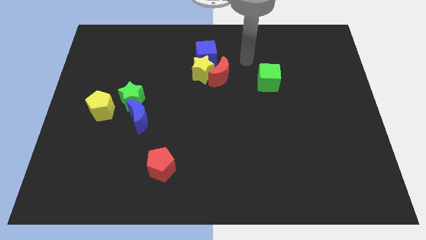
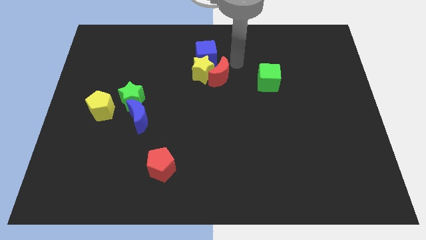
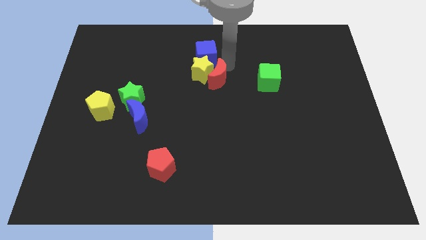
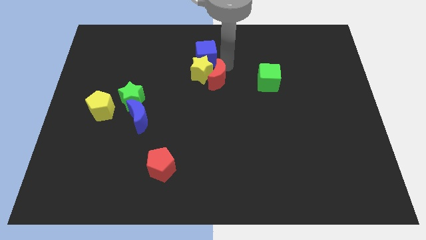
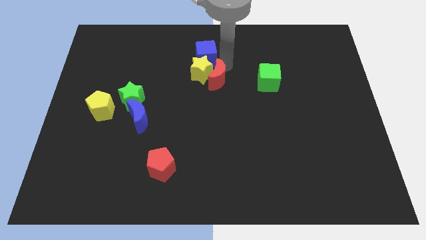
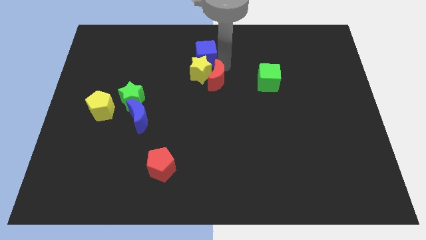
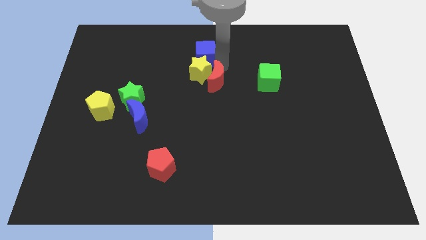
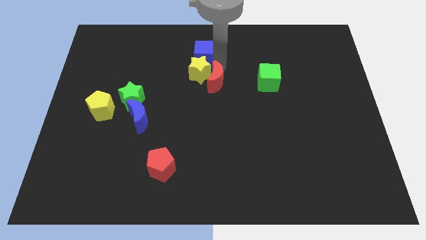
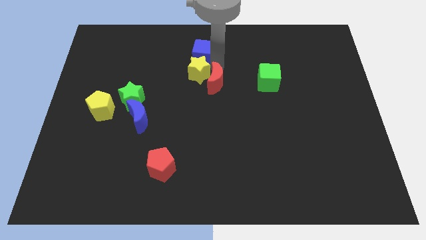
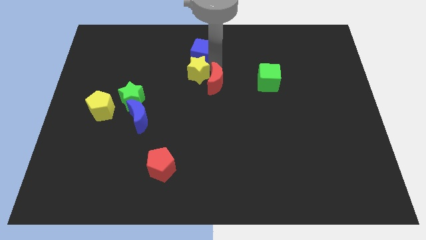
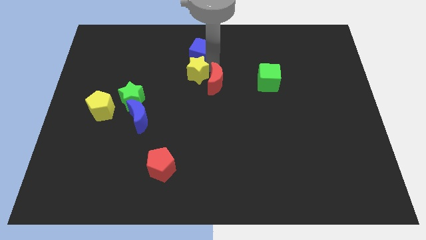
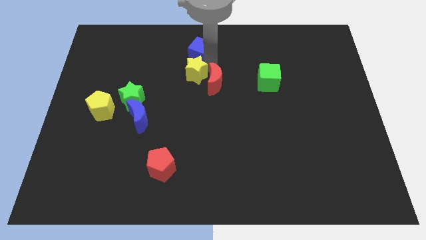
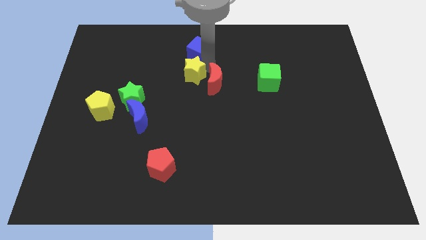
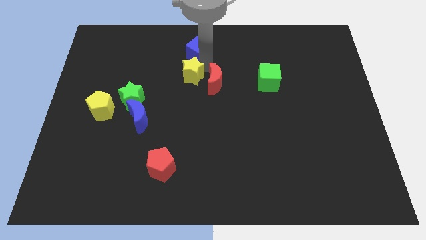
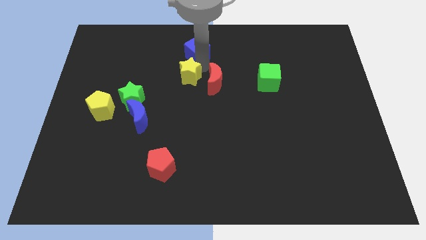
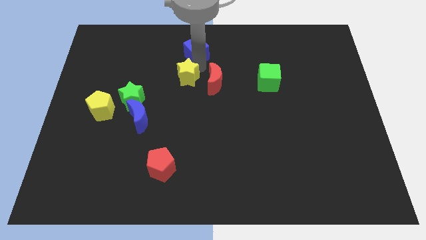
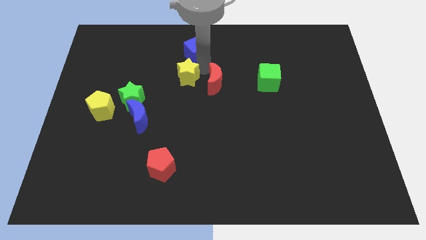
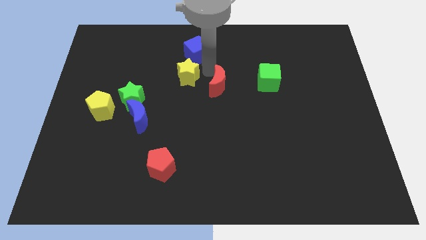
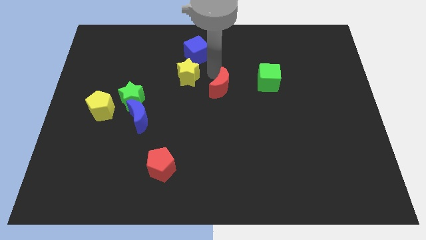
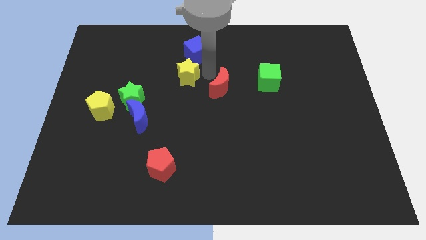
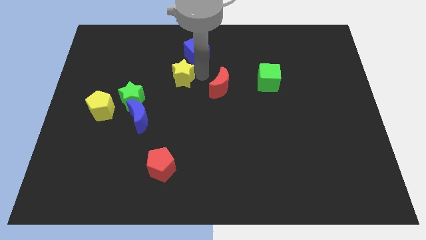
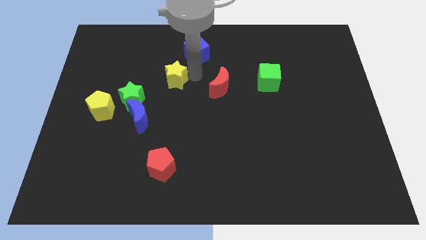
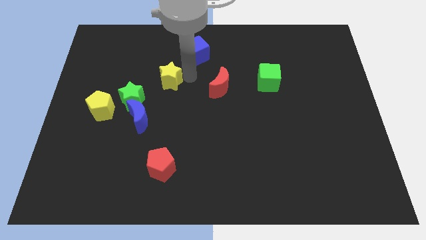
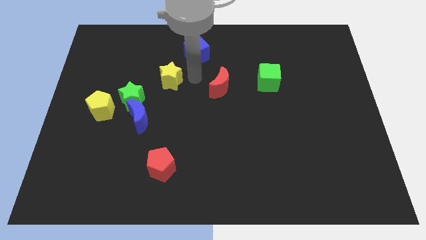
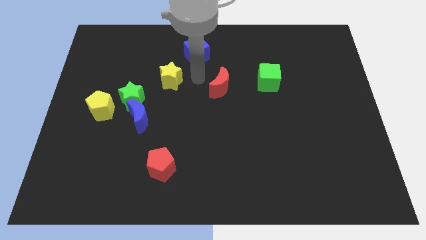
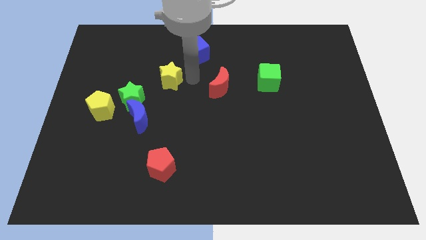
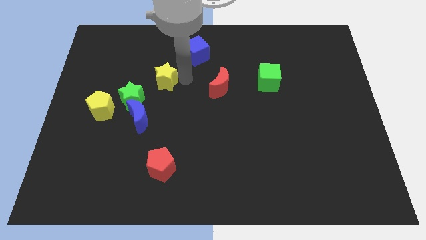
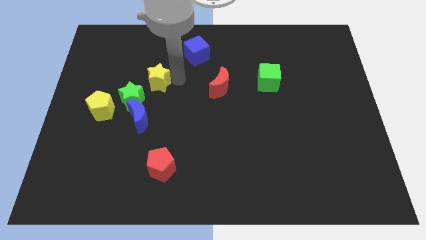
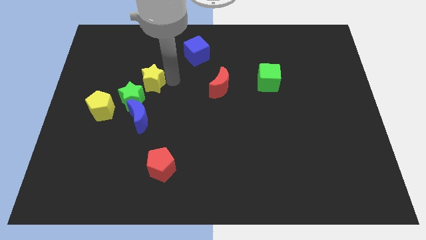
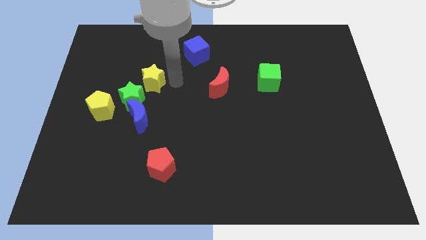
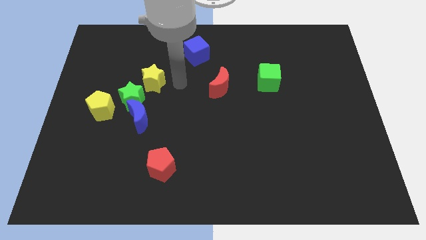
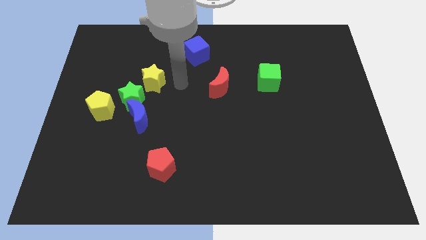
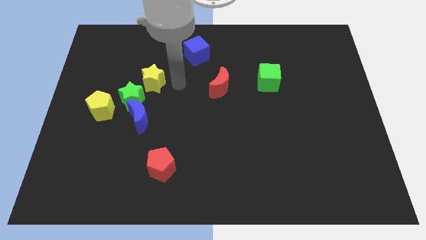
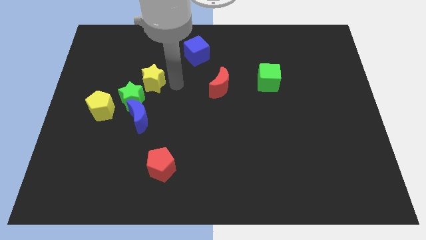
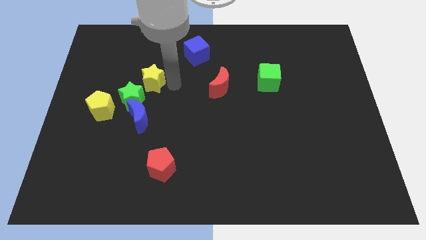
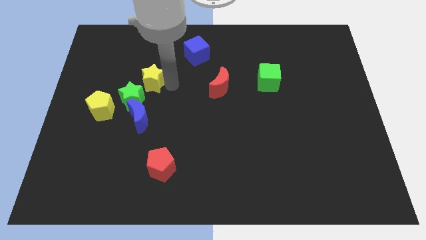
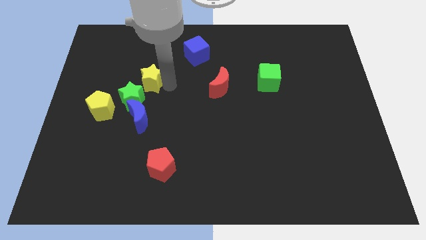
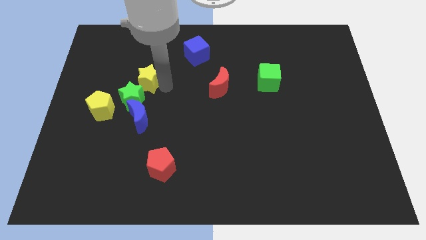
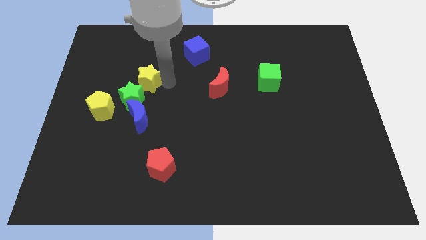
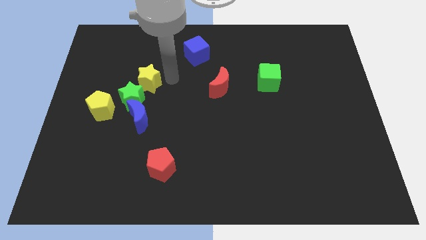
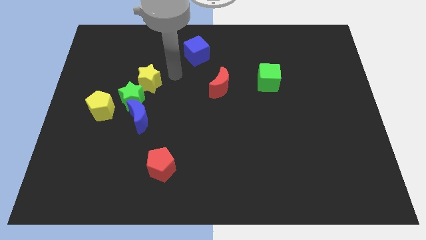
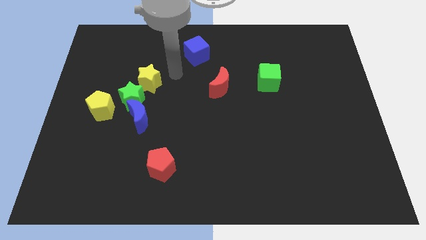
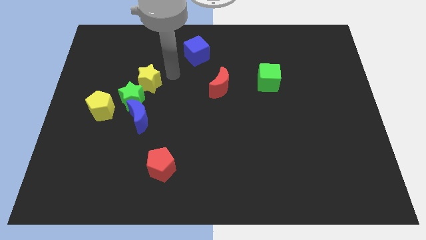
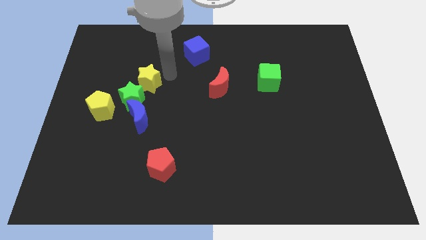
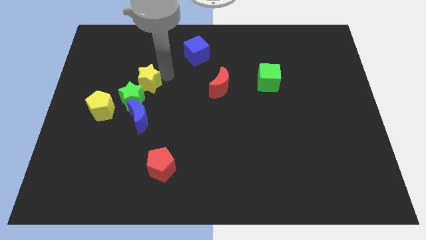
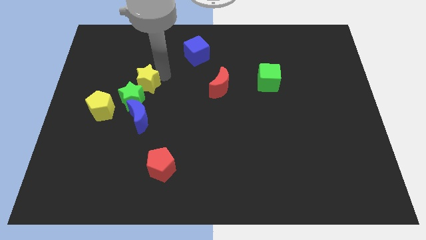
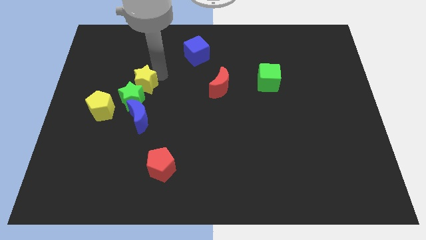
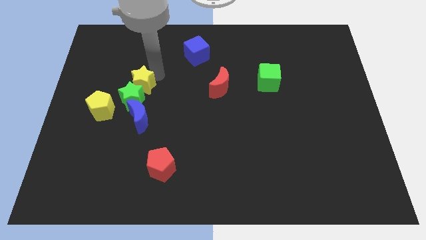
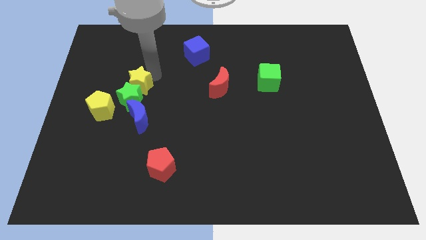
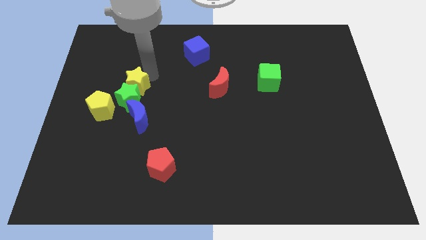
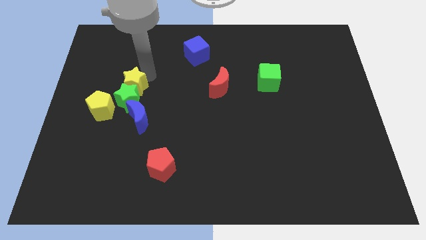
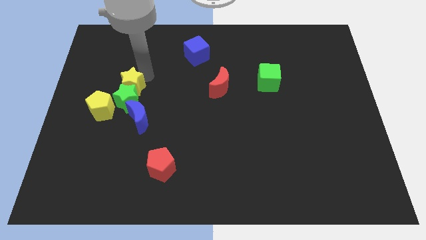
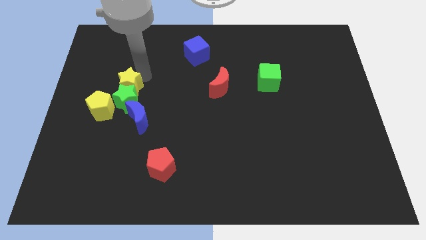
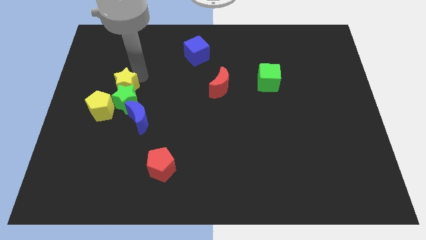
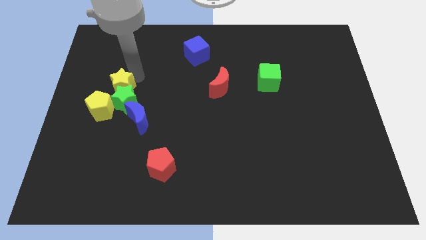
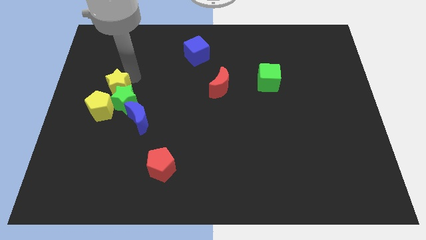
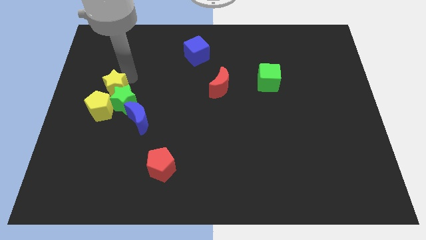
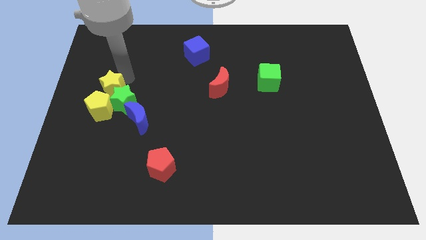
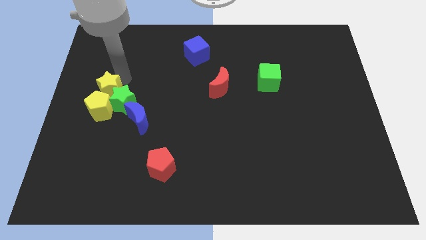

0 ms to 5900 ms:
move the yellow star close to the yellow pentagon

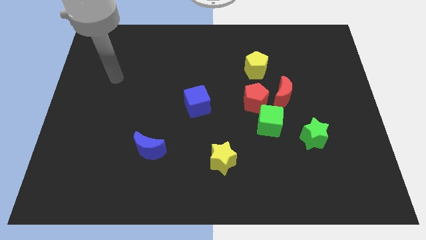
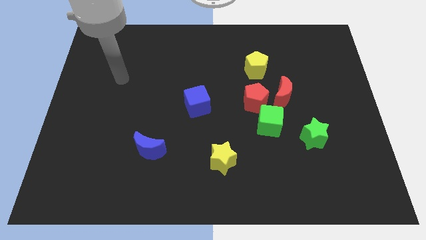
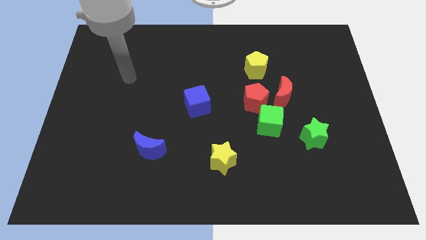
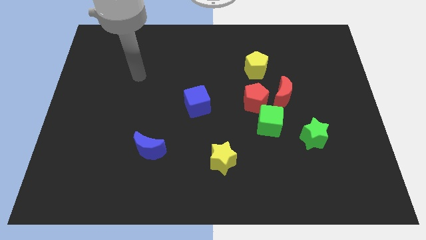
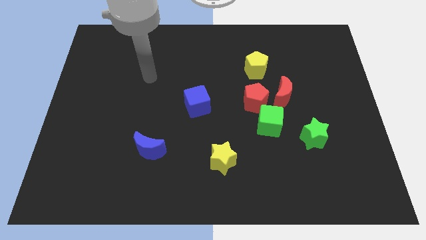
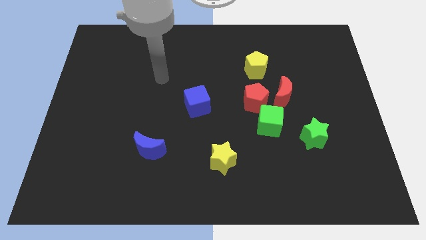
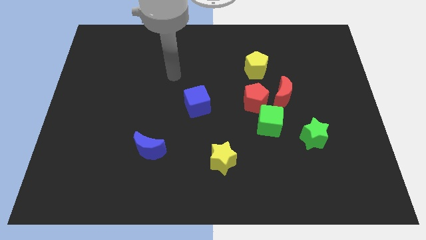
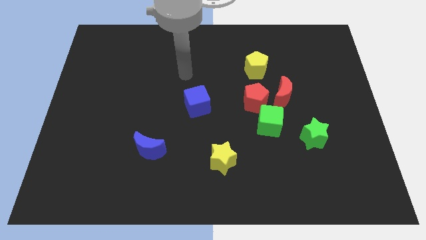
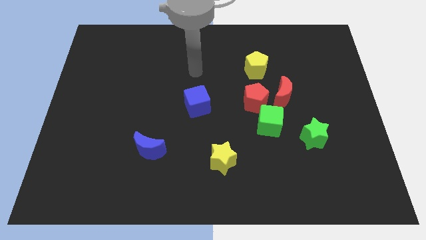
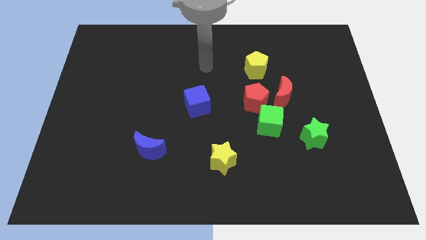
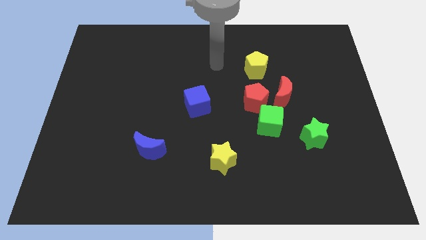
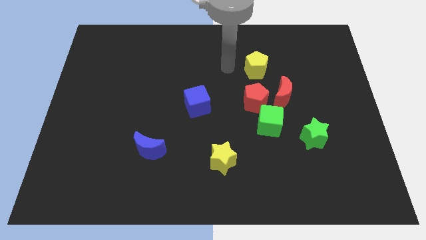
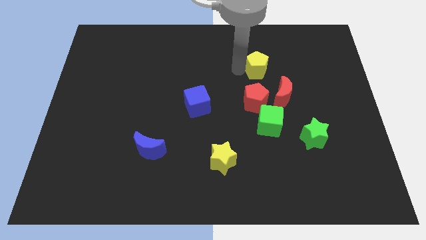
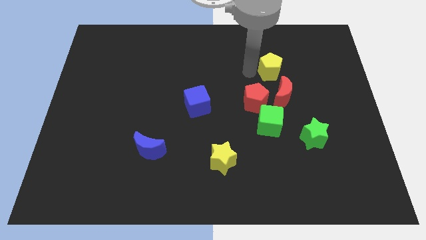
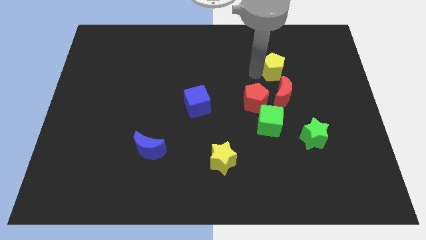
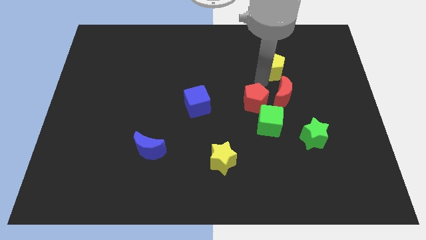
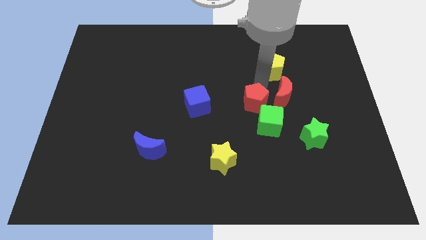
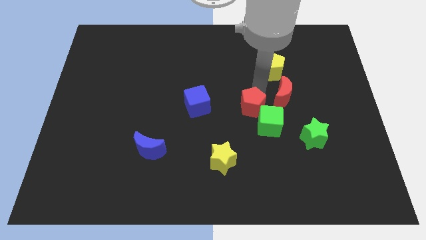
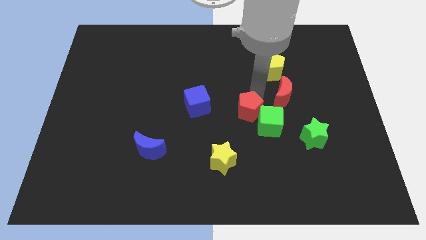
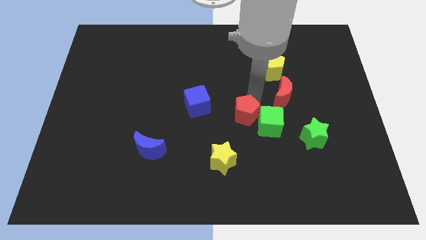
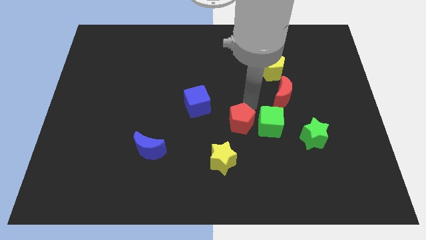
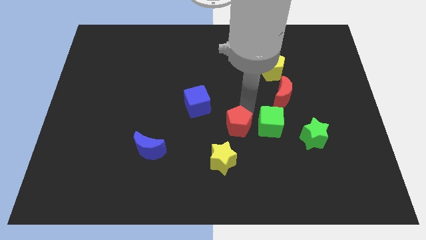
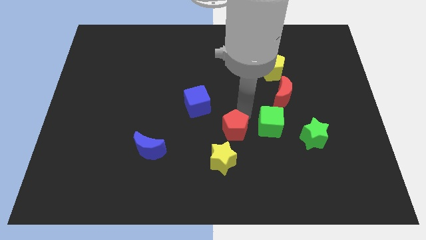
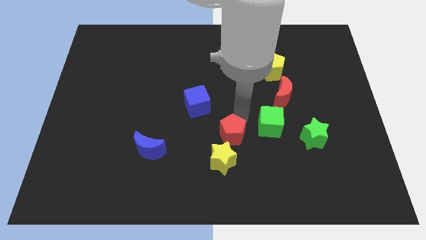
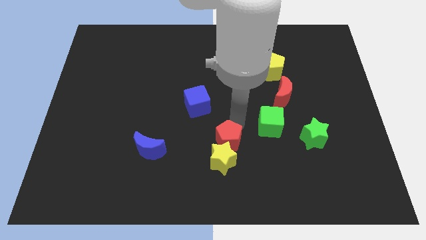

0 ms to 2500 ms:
push the red pentagon towards the yellow star
